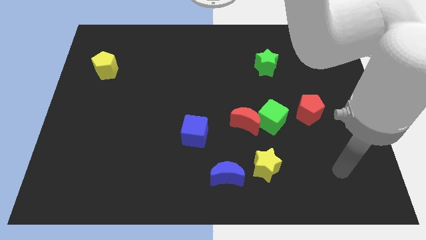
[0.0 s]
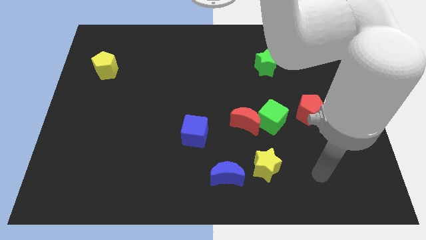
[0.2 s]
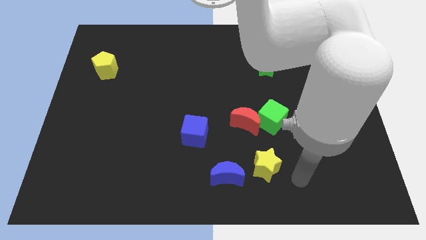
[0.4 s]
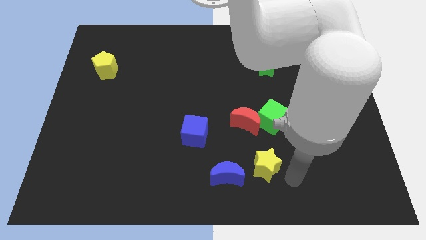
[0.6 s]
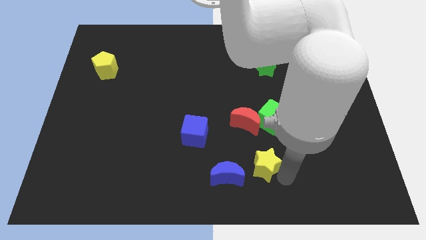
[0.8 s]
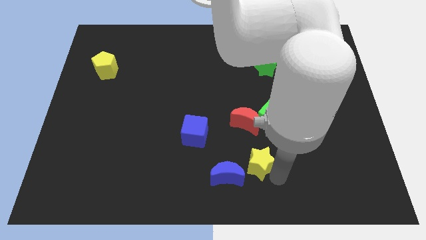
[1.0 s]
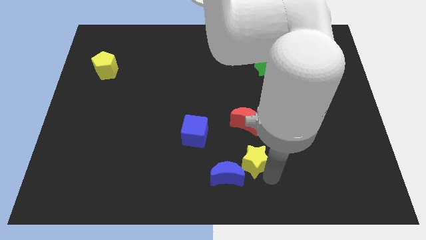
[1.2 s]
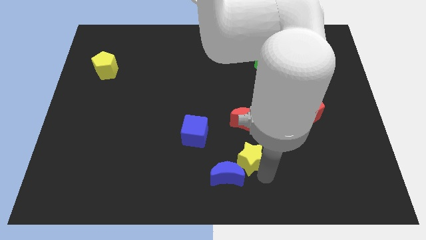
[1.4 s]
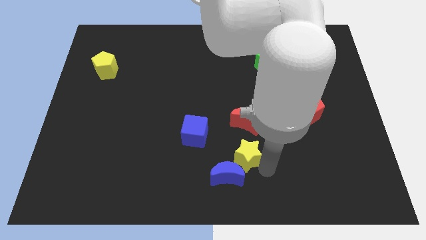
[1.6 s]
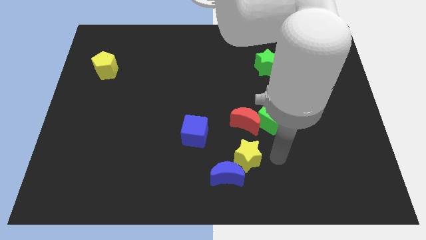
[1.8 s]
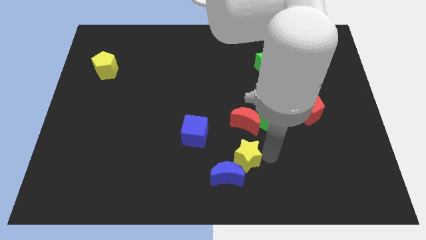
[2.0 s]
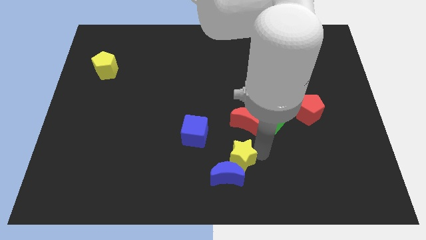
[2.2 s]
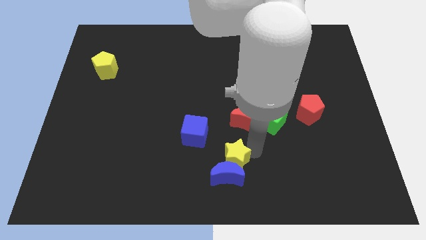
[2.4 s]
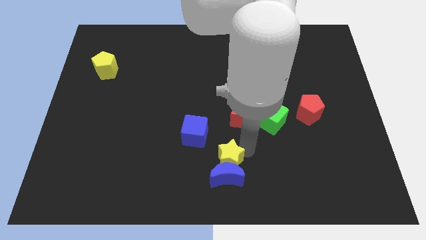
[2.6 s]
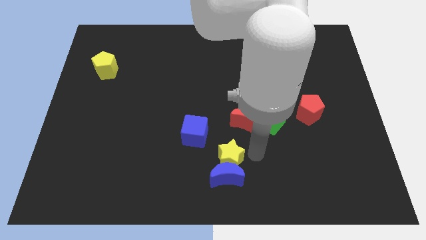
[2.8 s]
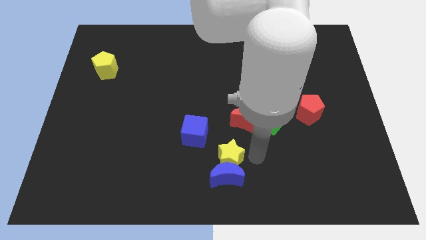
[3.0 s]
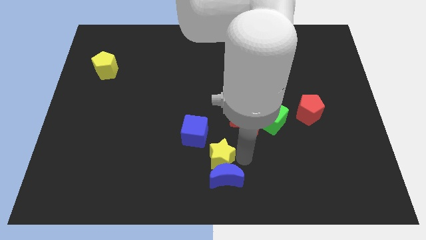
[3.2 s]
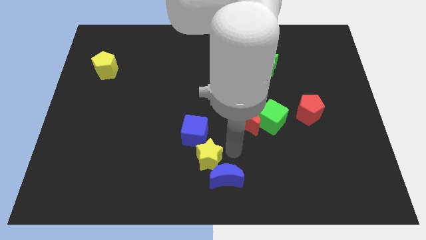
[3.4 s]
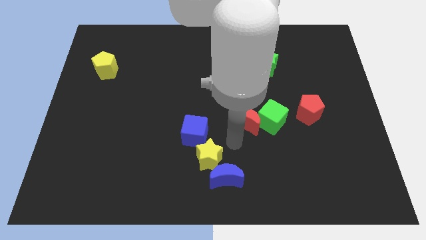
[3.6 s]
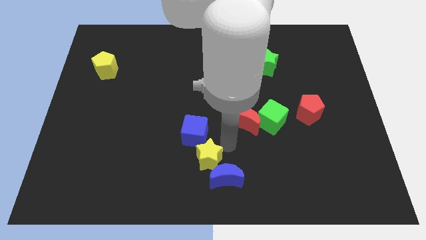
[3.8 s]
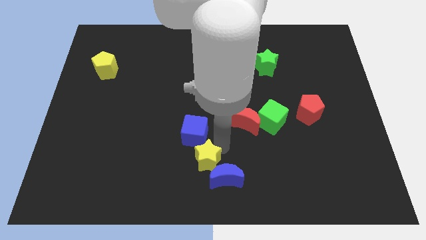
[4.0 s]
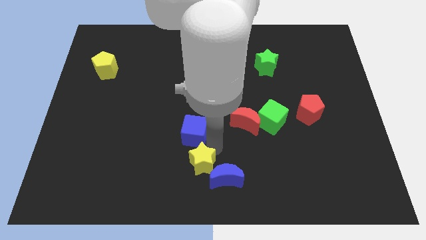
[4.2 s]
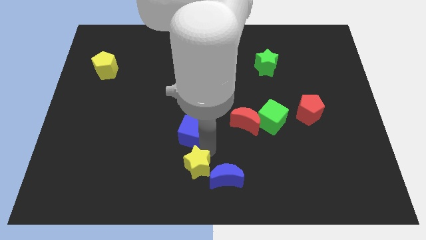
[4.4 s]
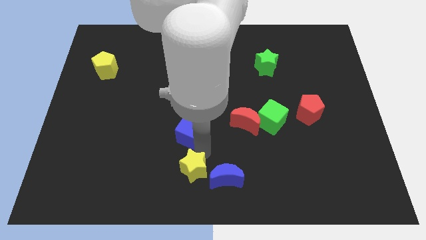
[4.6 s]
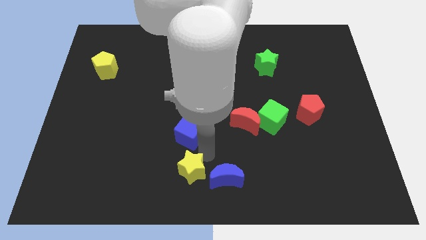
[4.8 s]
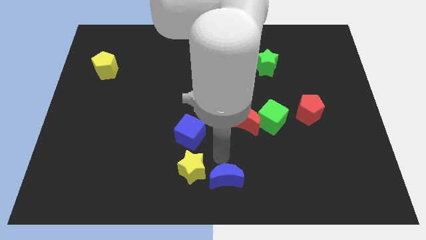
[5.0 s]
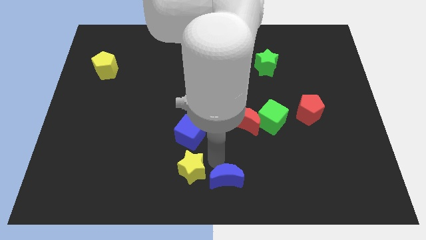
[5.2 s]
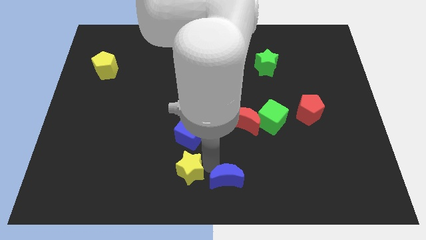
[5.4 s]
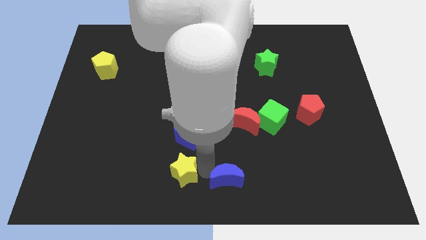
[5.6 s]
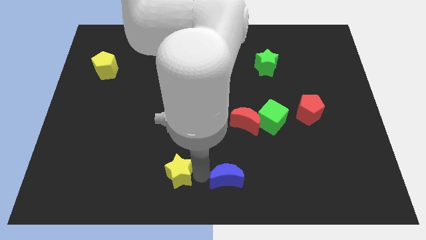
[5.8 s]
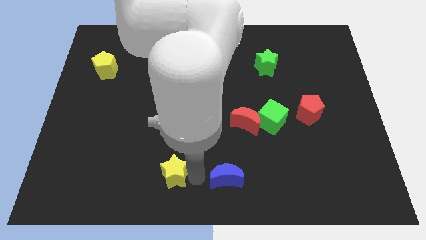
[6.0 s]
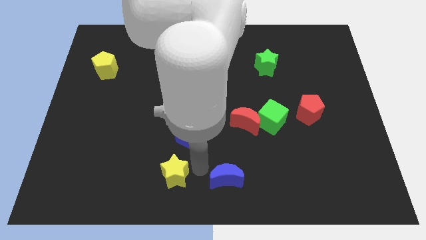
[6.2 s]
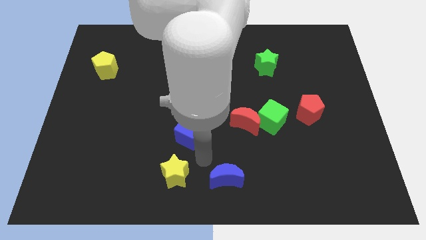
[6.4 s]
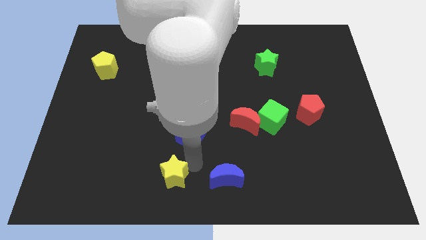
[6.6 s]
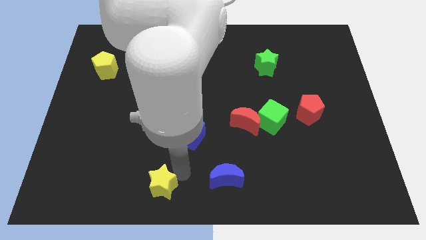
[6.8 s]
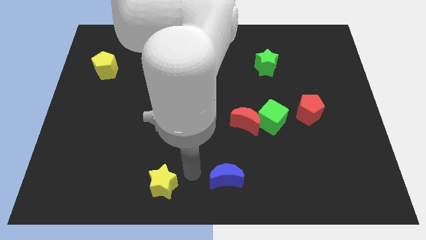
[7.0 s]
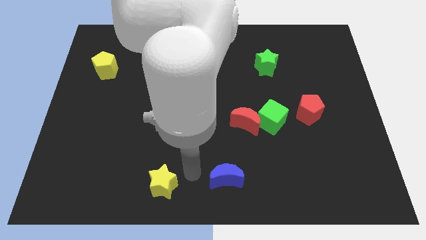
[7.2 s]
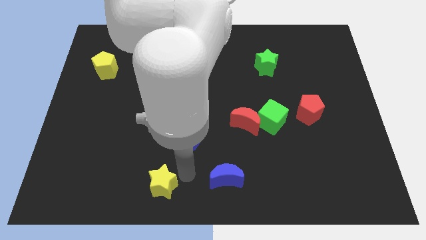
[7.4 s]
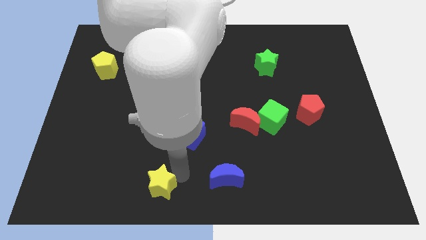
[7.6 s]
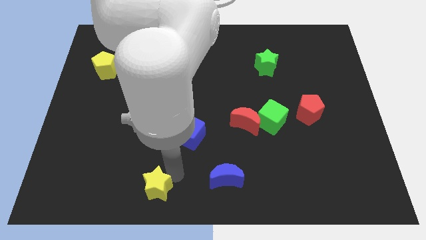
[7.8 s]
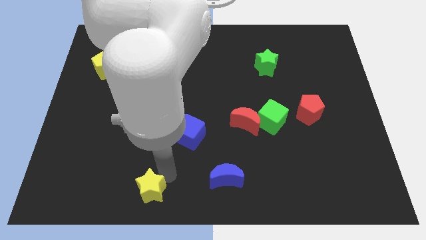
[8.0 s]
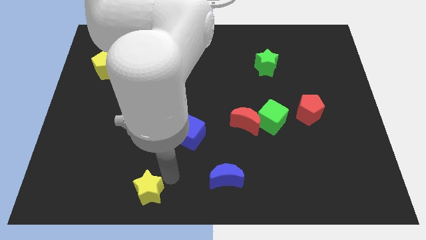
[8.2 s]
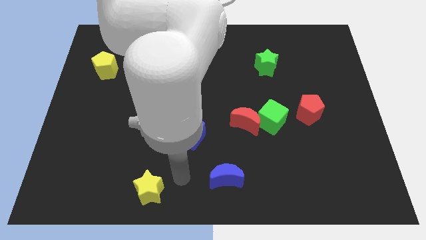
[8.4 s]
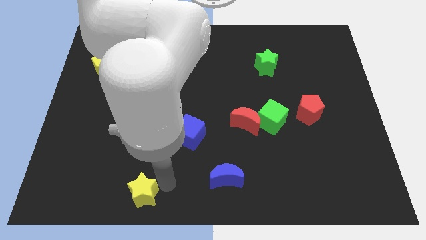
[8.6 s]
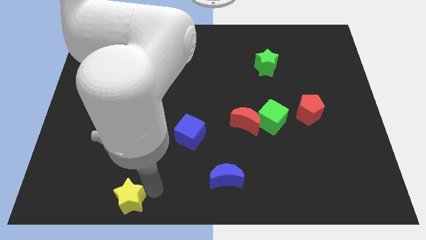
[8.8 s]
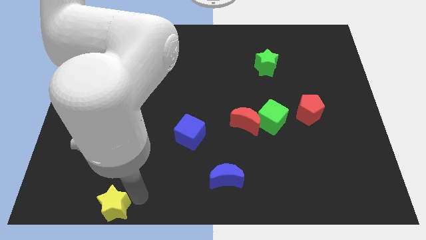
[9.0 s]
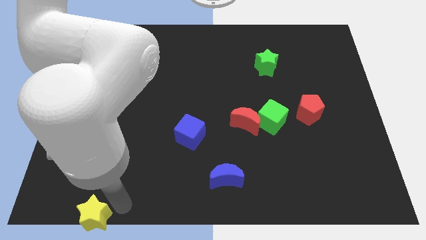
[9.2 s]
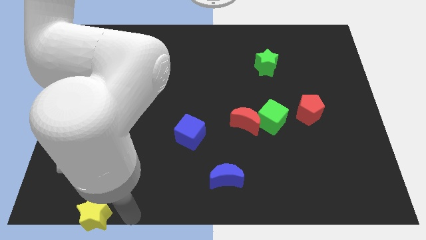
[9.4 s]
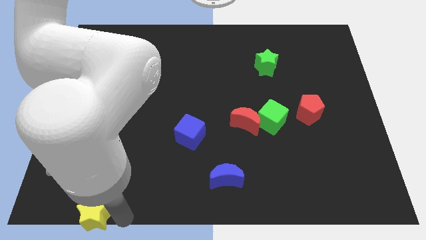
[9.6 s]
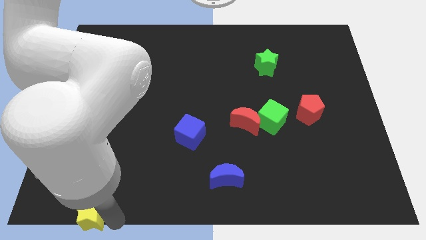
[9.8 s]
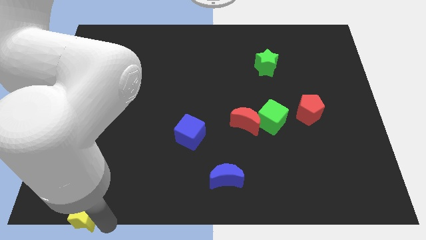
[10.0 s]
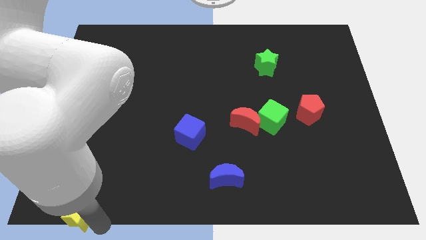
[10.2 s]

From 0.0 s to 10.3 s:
put the yellow star to the lower left corner

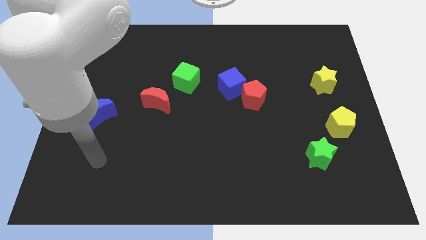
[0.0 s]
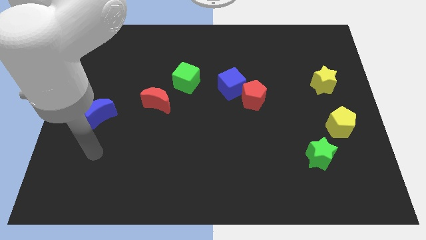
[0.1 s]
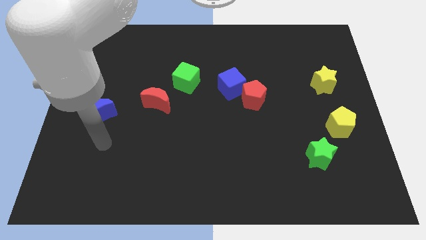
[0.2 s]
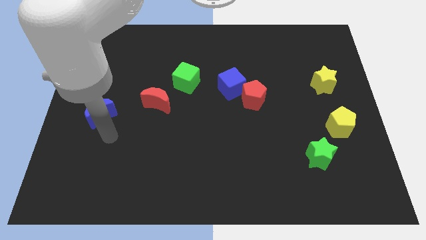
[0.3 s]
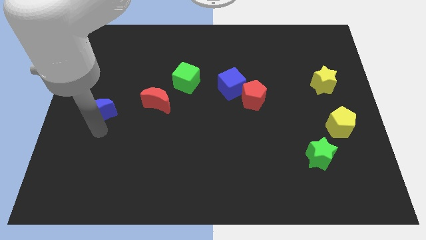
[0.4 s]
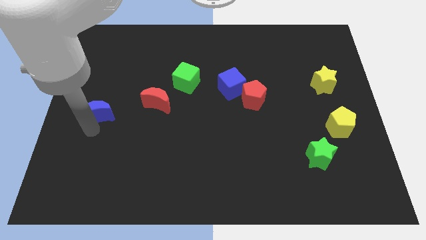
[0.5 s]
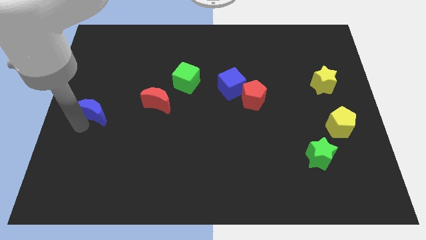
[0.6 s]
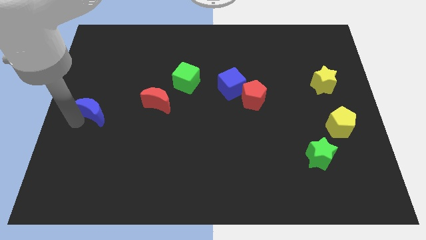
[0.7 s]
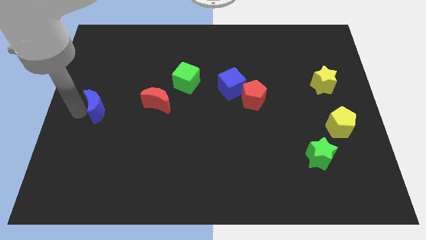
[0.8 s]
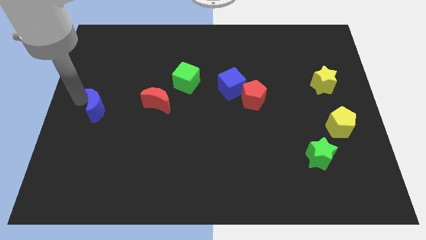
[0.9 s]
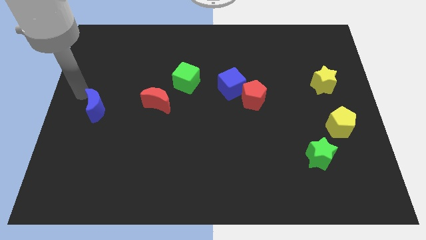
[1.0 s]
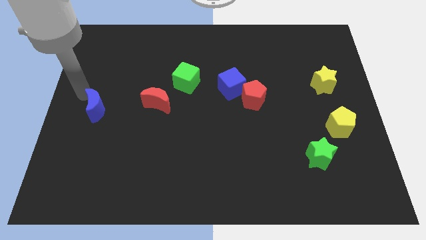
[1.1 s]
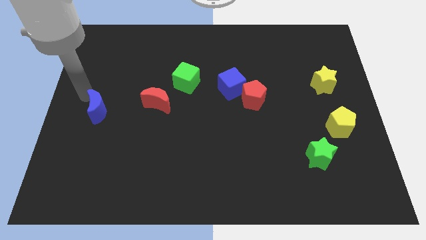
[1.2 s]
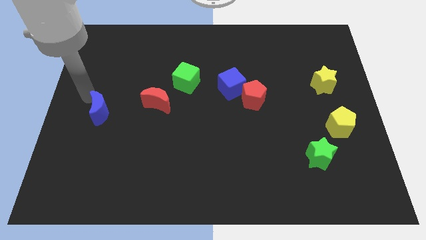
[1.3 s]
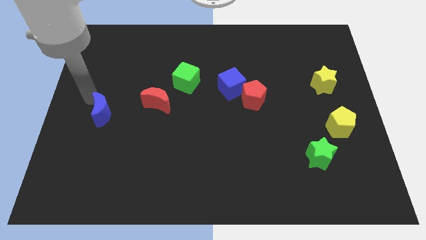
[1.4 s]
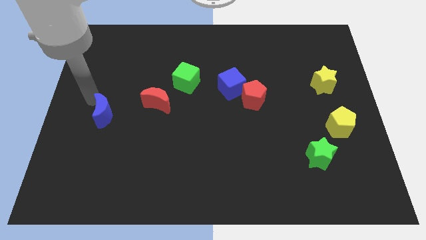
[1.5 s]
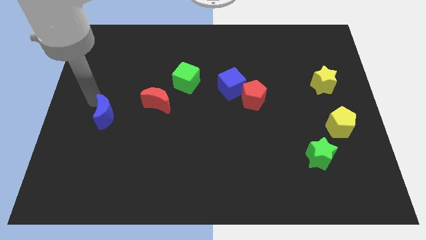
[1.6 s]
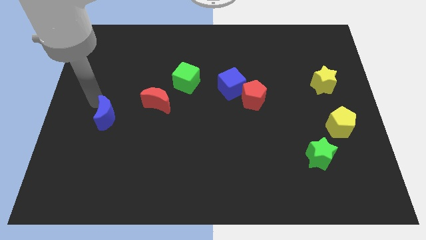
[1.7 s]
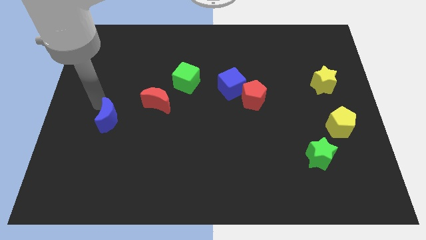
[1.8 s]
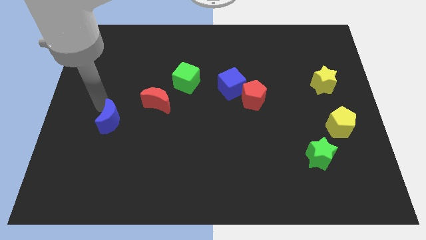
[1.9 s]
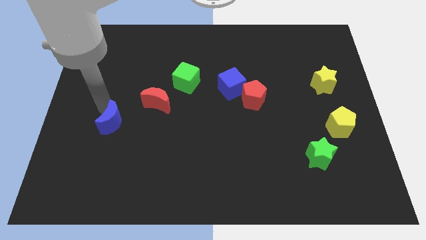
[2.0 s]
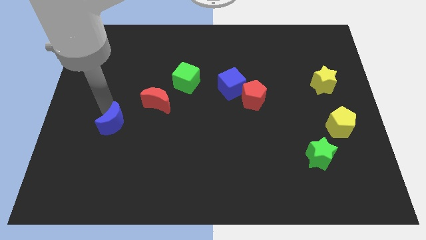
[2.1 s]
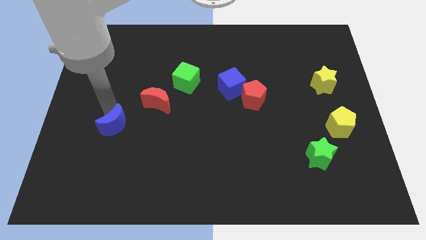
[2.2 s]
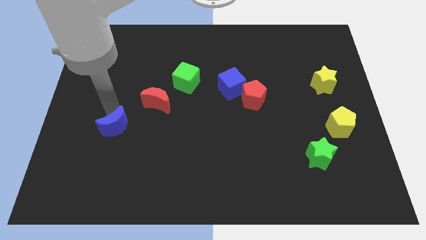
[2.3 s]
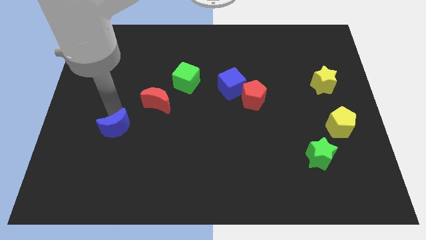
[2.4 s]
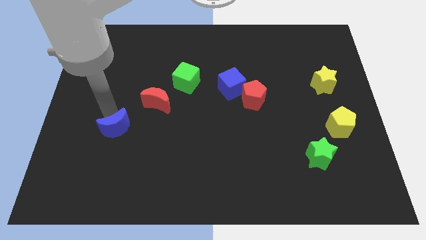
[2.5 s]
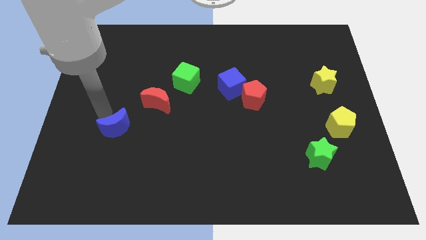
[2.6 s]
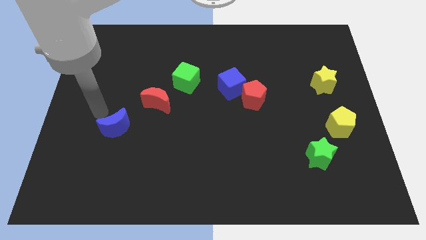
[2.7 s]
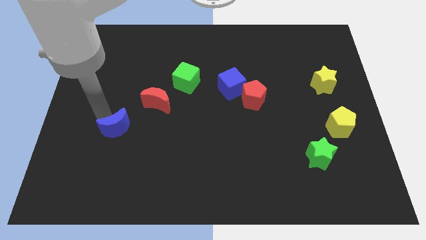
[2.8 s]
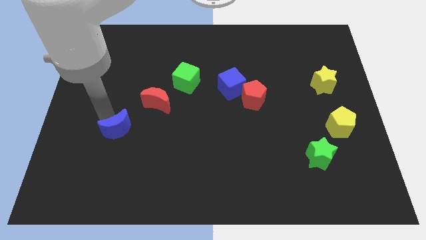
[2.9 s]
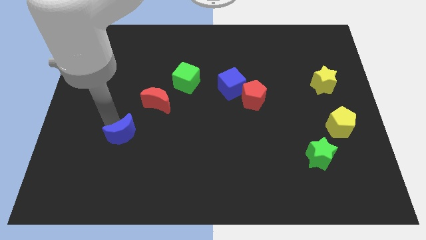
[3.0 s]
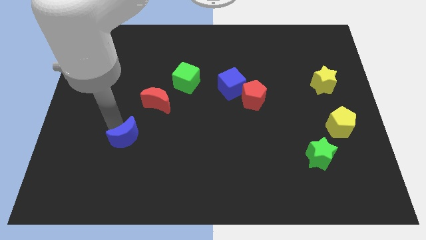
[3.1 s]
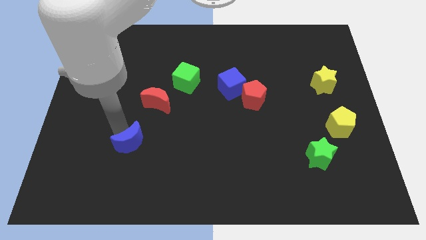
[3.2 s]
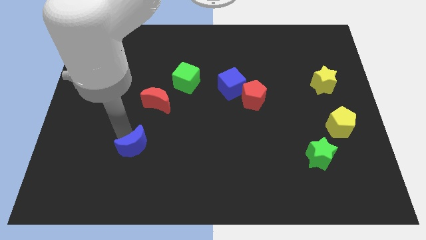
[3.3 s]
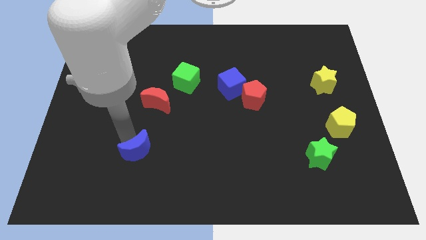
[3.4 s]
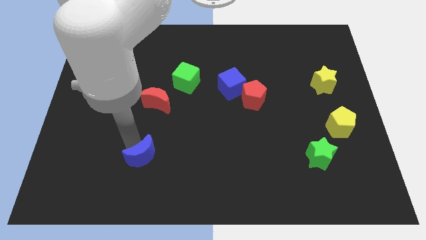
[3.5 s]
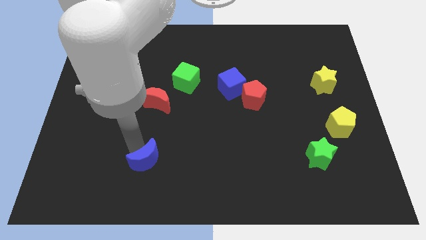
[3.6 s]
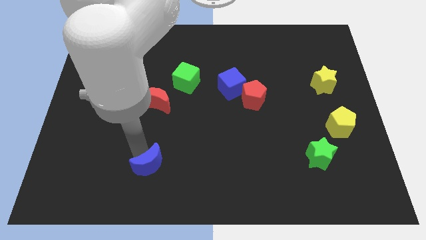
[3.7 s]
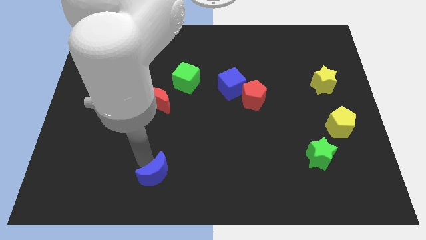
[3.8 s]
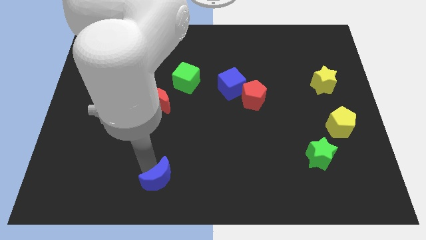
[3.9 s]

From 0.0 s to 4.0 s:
push the blue moon to the bottom
